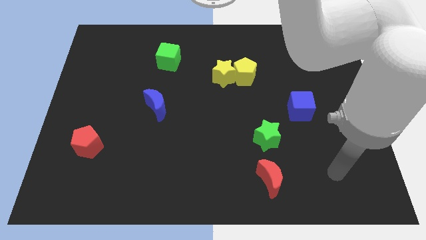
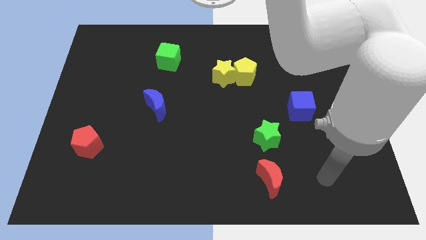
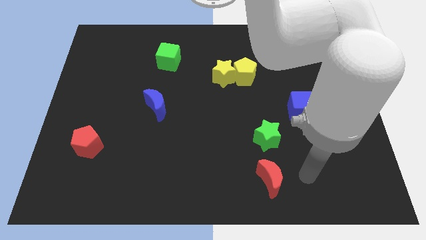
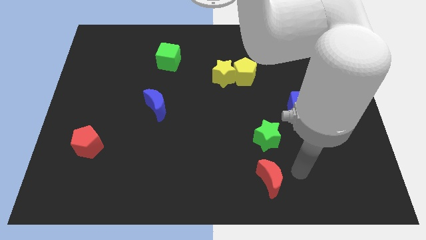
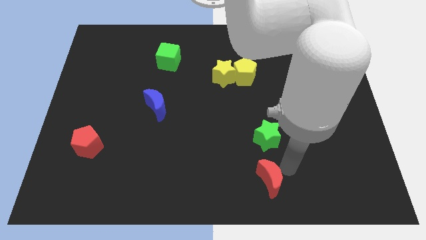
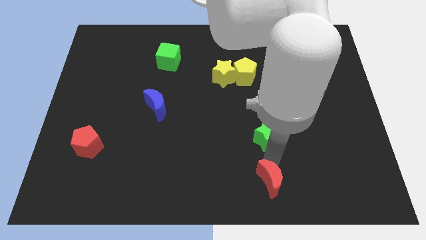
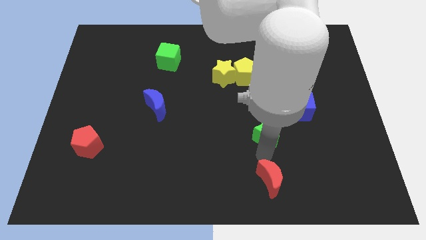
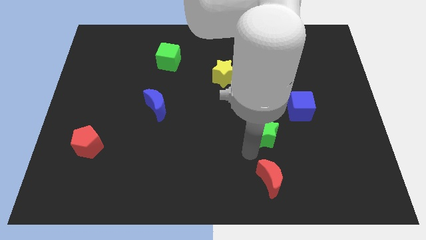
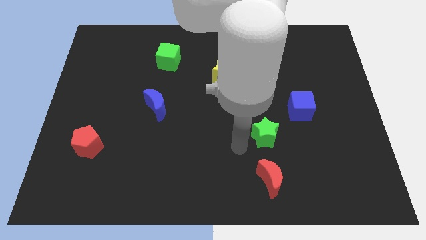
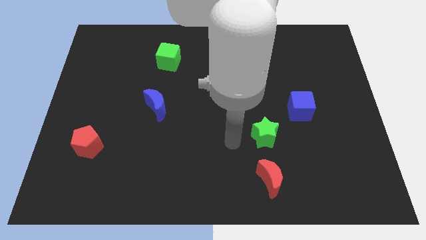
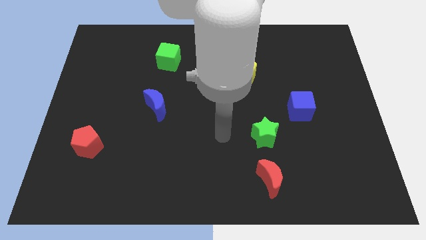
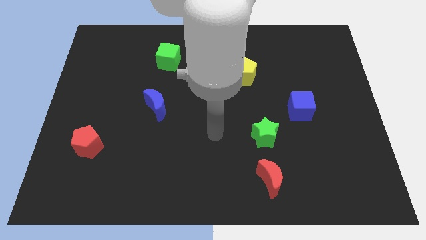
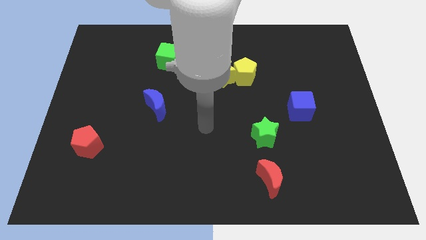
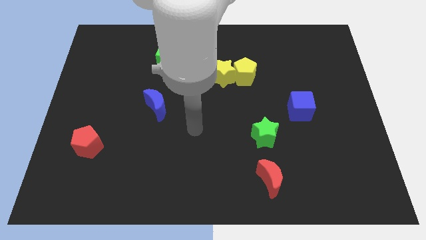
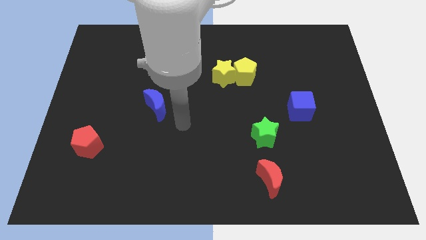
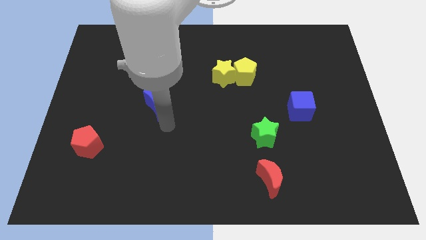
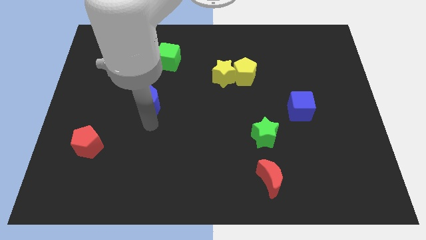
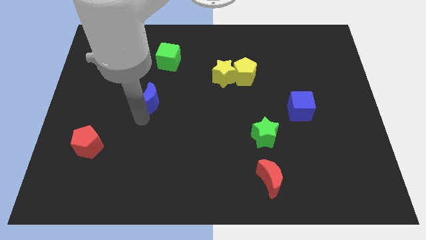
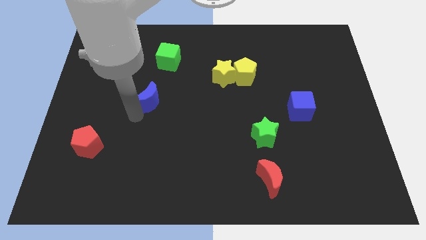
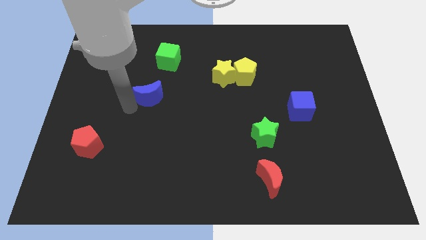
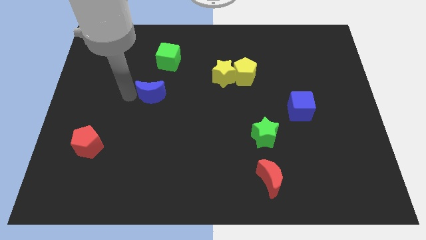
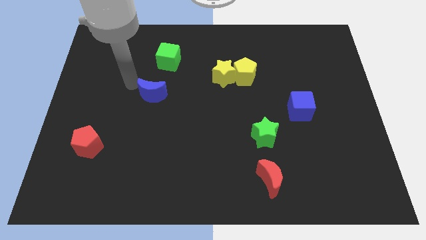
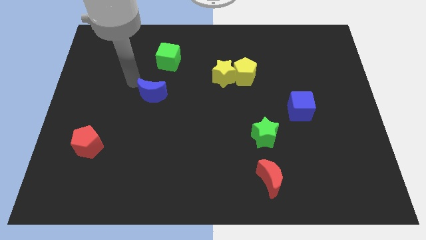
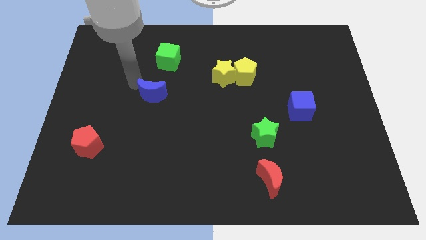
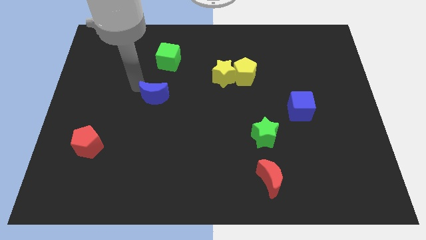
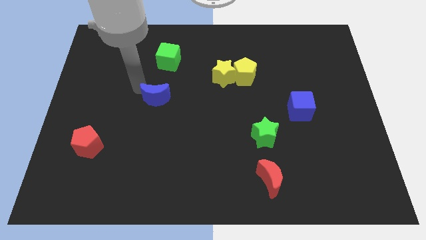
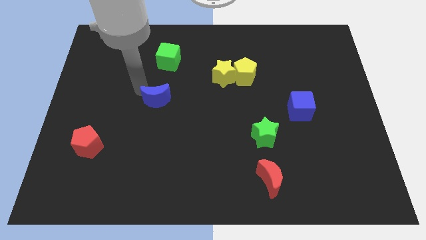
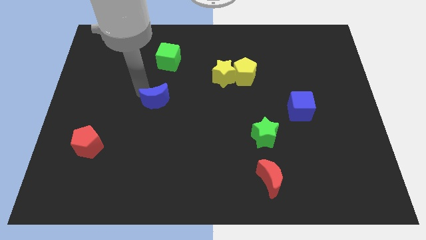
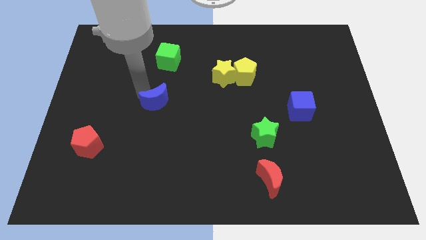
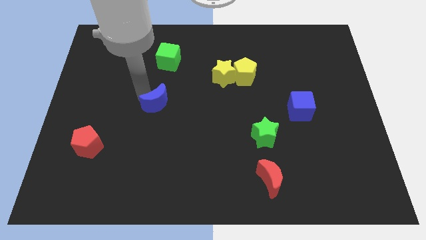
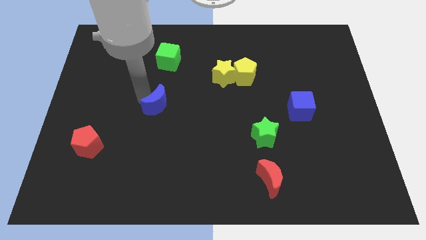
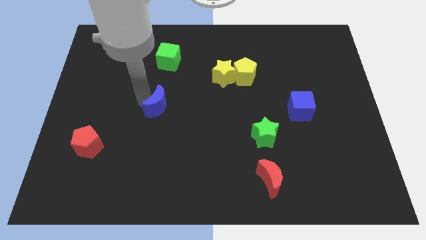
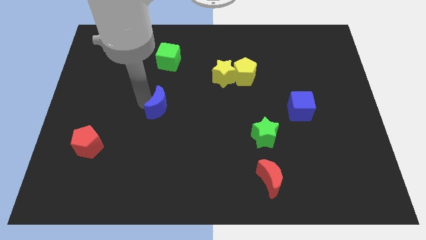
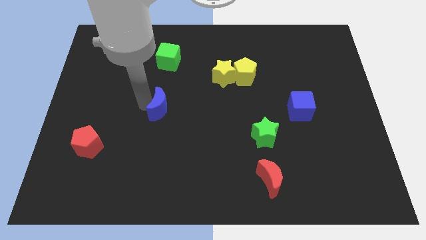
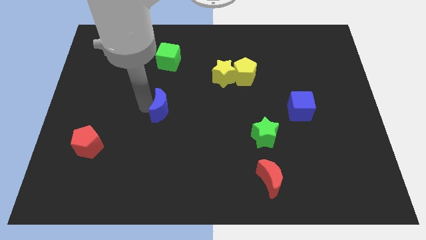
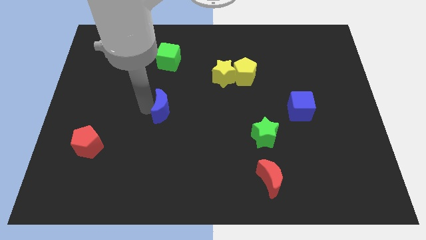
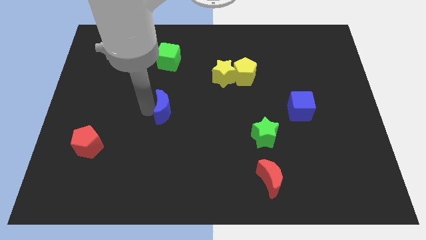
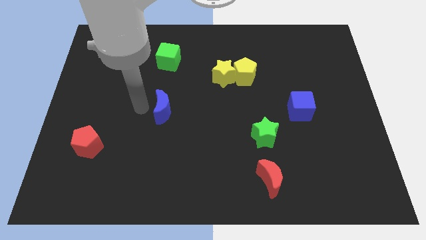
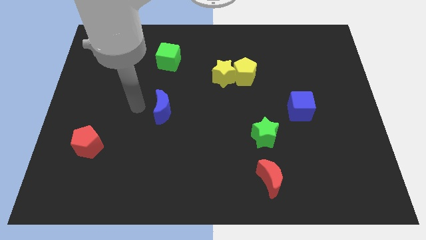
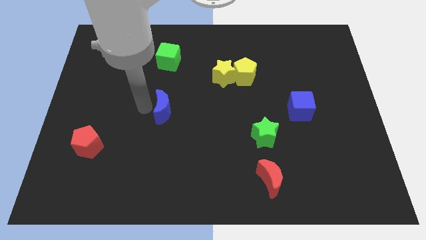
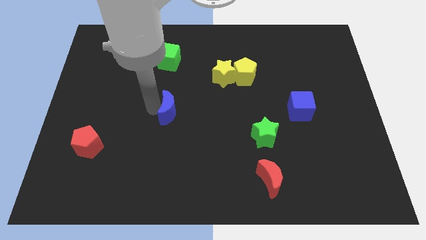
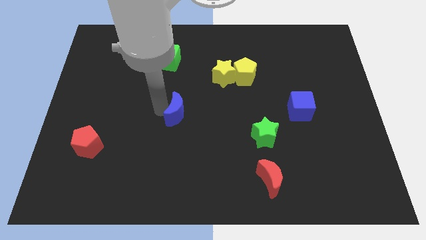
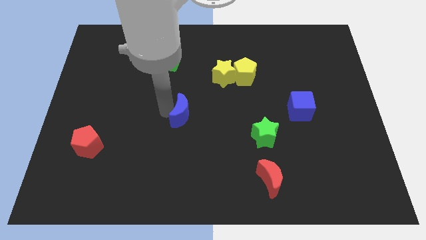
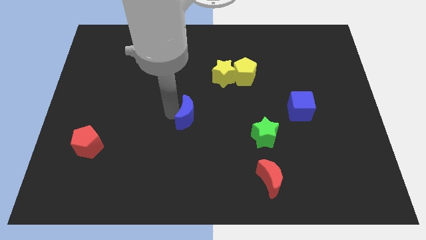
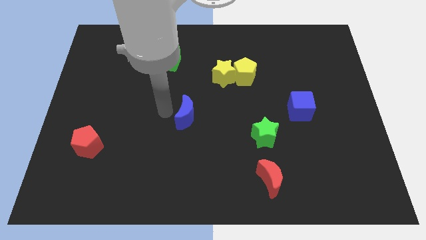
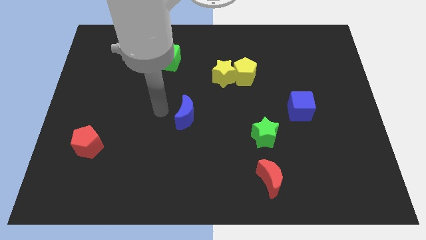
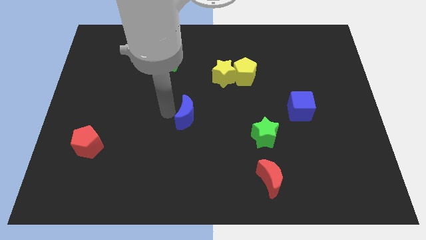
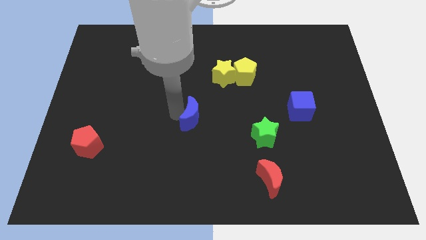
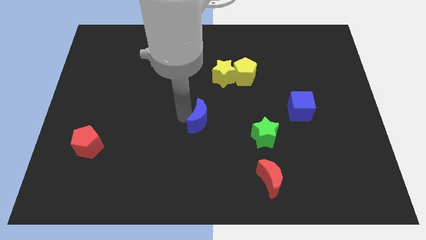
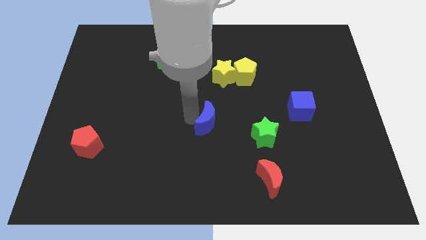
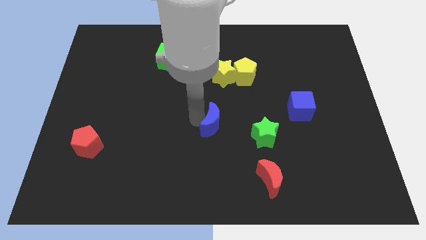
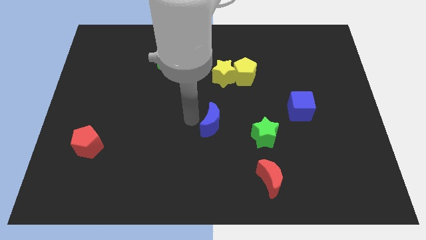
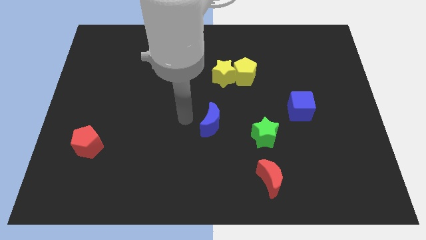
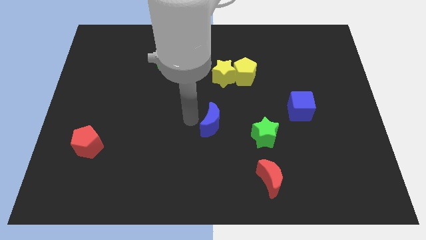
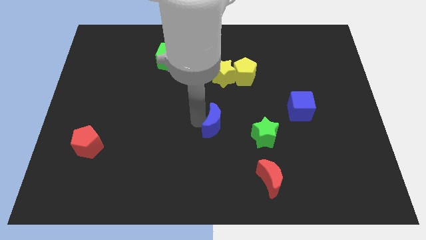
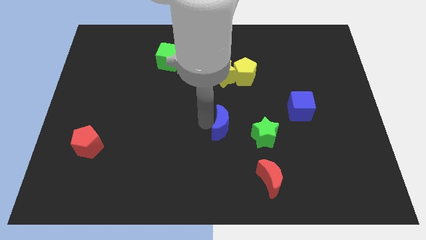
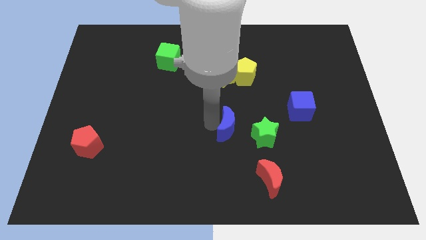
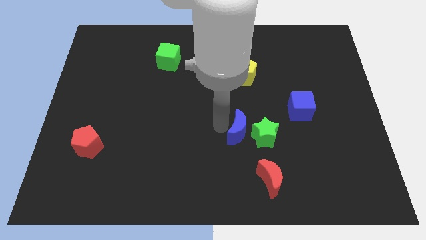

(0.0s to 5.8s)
move the blue moon to the green star

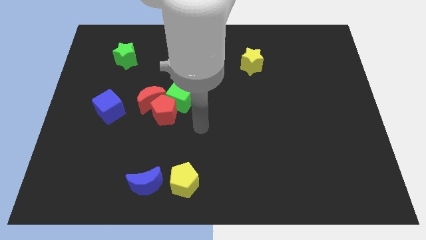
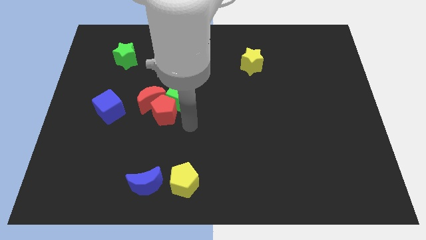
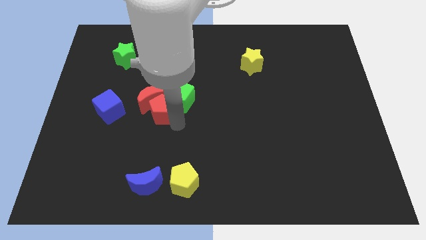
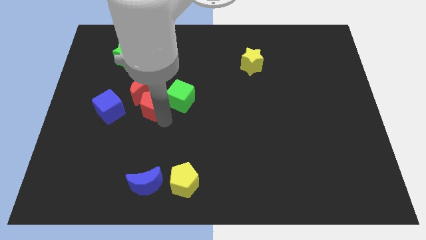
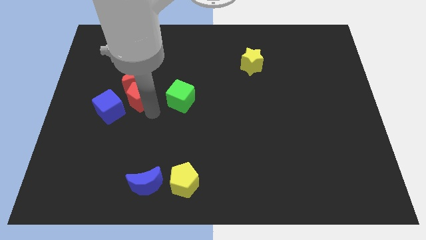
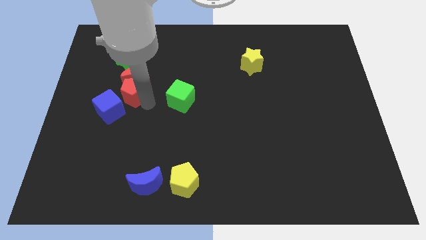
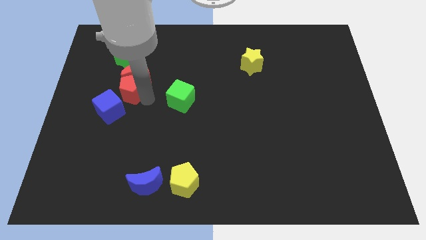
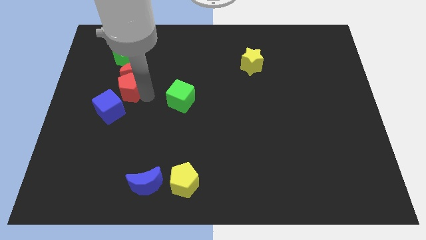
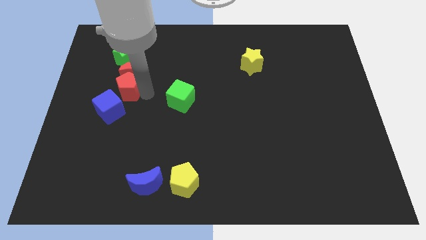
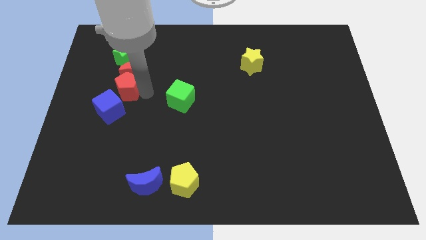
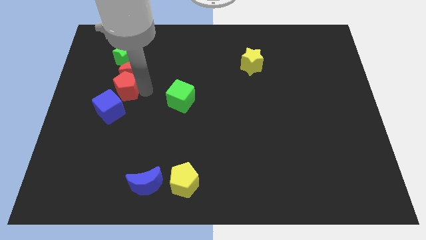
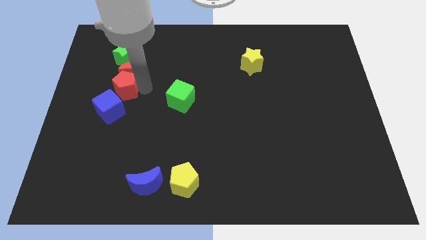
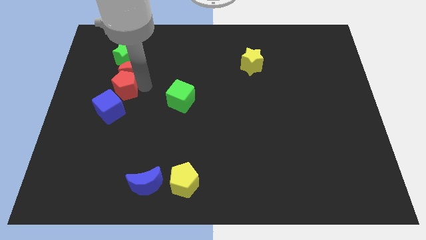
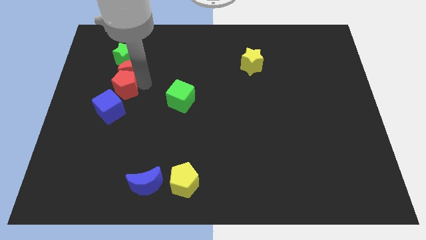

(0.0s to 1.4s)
move the red moon close to the green star
